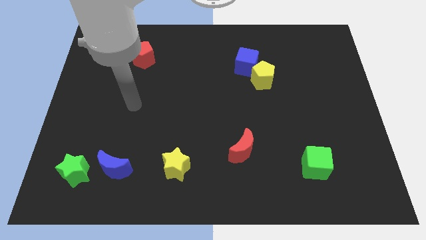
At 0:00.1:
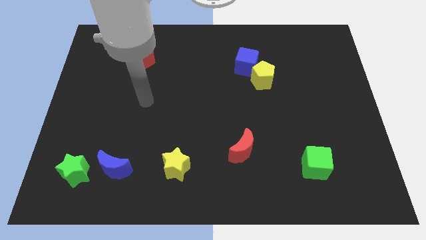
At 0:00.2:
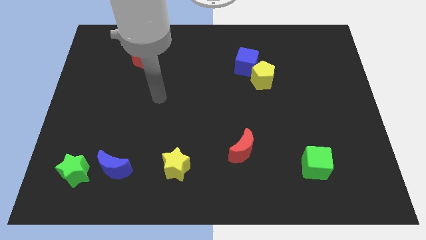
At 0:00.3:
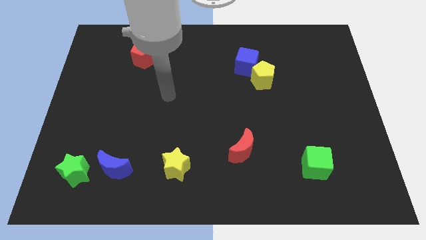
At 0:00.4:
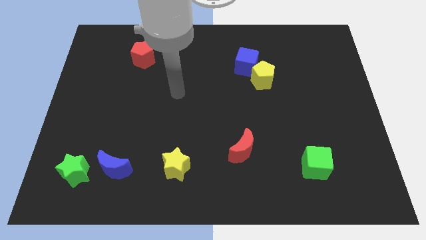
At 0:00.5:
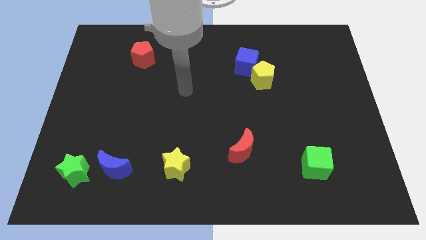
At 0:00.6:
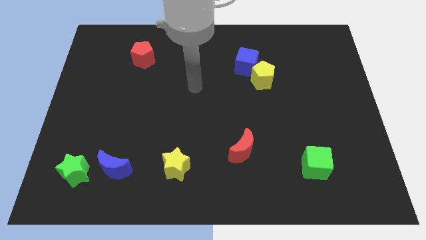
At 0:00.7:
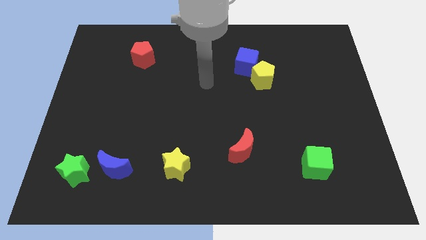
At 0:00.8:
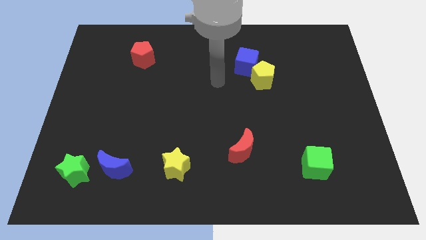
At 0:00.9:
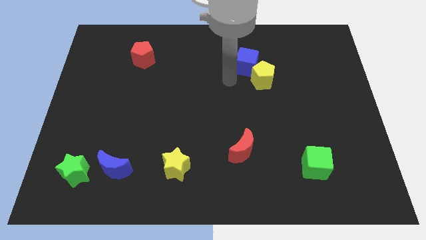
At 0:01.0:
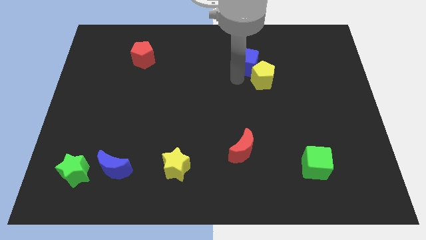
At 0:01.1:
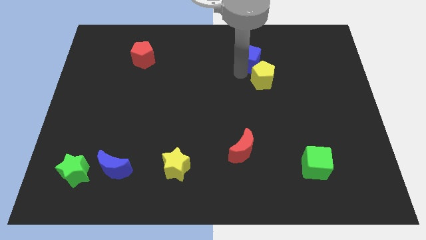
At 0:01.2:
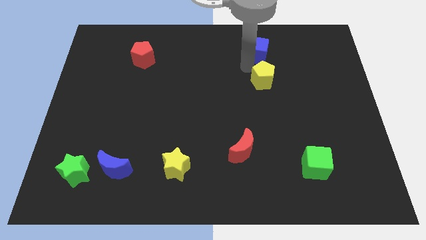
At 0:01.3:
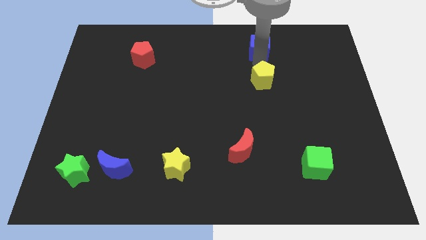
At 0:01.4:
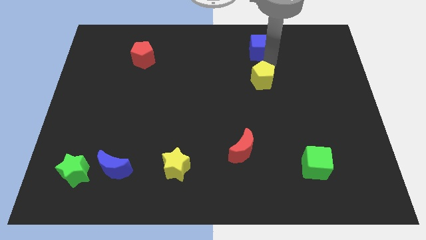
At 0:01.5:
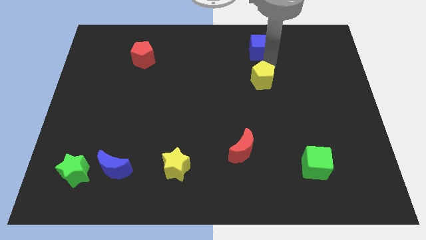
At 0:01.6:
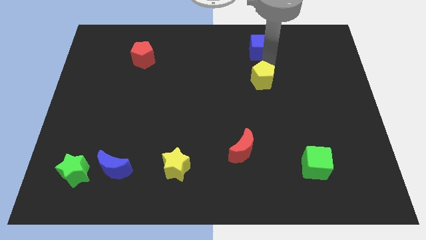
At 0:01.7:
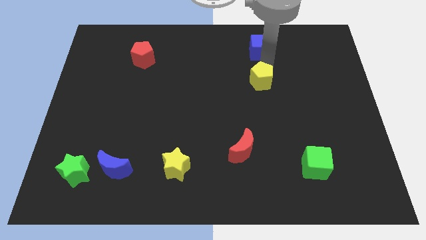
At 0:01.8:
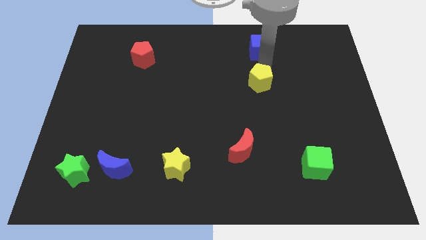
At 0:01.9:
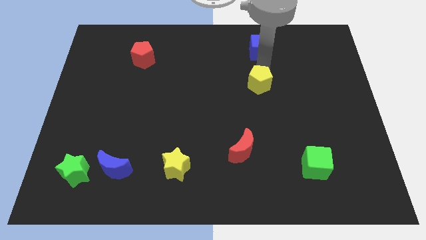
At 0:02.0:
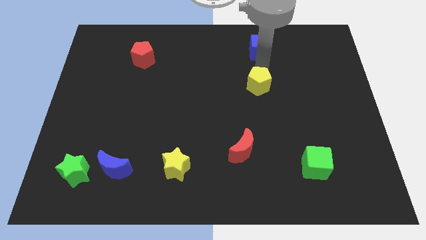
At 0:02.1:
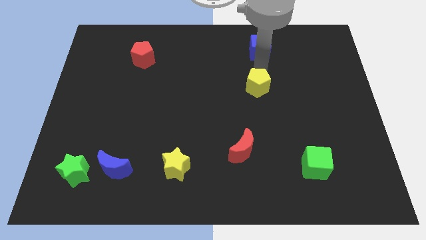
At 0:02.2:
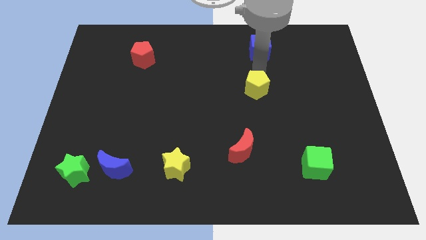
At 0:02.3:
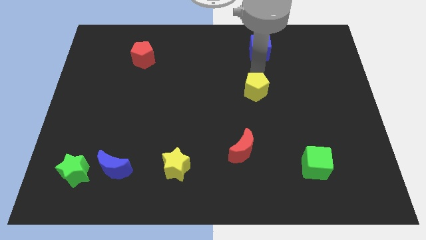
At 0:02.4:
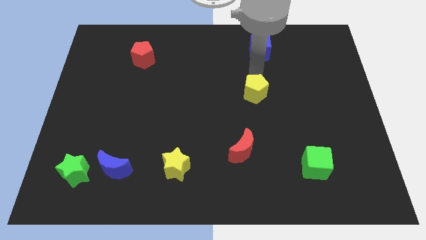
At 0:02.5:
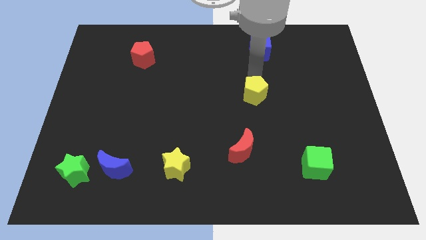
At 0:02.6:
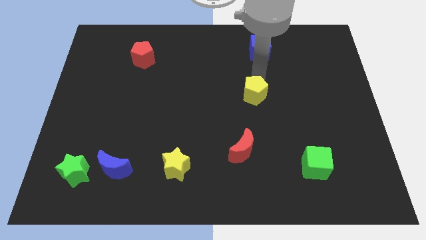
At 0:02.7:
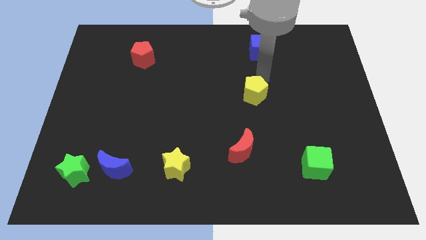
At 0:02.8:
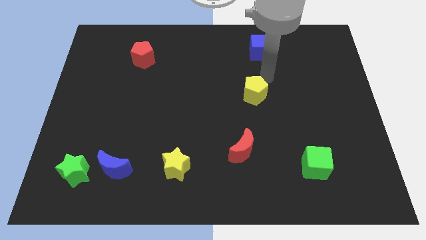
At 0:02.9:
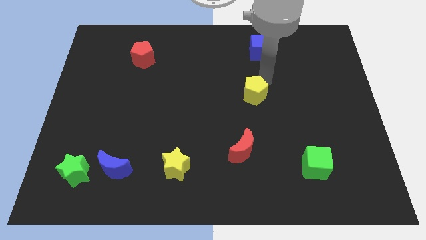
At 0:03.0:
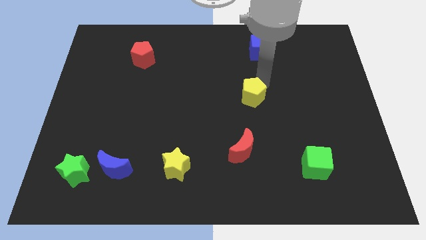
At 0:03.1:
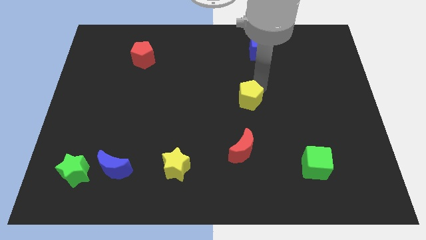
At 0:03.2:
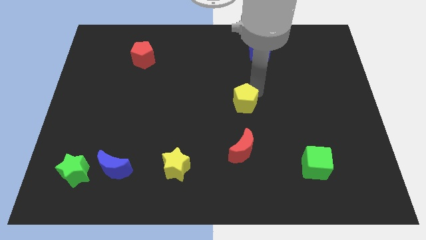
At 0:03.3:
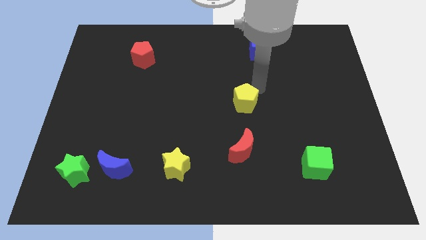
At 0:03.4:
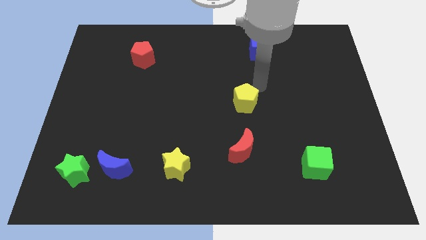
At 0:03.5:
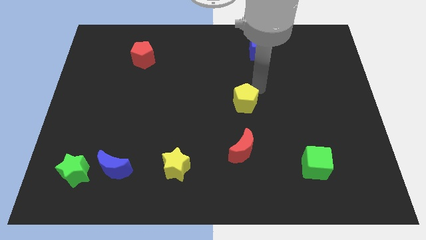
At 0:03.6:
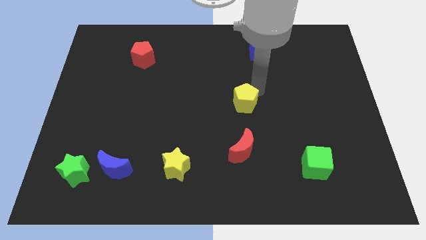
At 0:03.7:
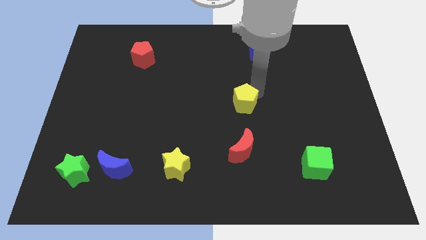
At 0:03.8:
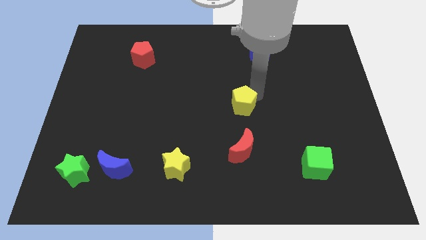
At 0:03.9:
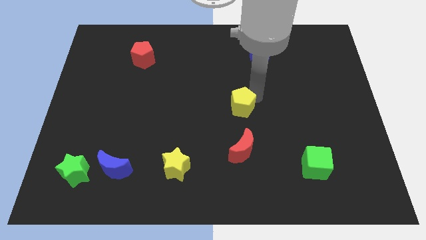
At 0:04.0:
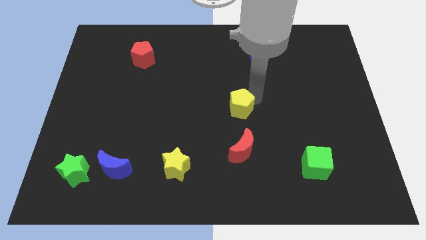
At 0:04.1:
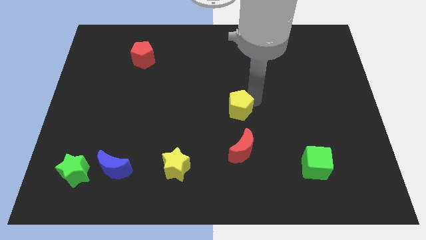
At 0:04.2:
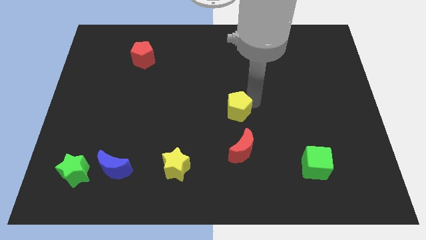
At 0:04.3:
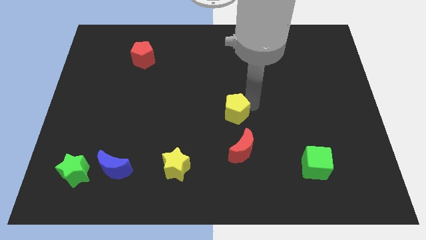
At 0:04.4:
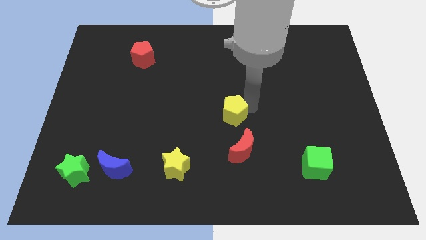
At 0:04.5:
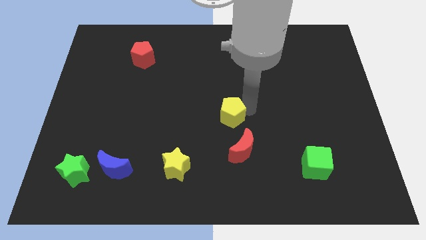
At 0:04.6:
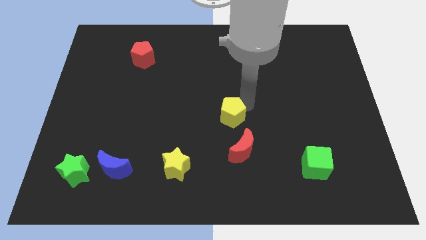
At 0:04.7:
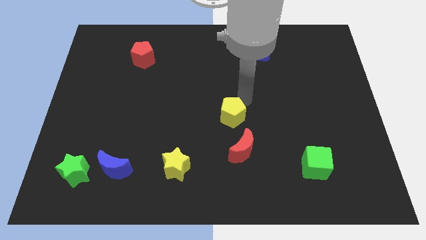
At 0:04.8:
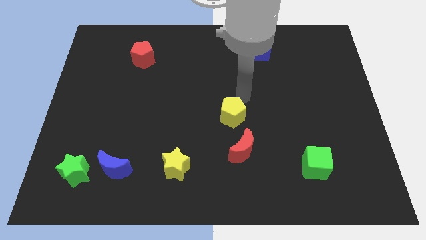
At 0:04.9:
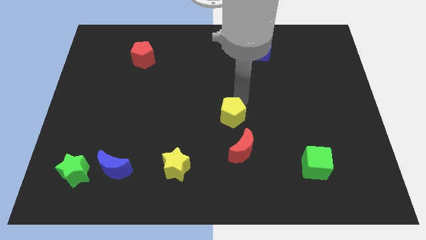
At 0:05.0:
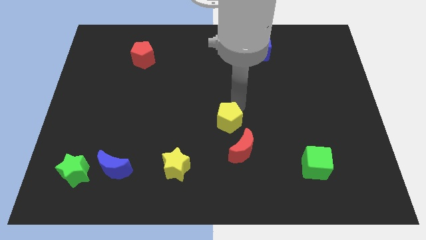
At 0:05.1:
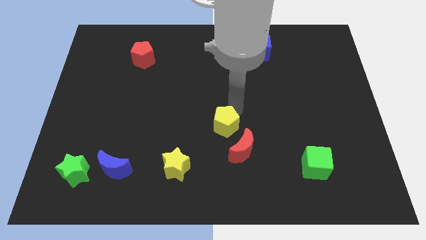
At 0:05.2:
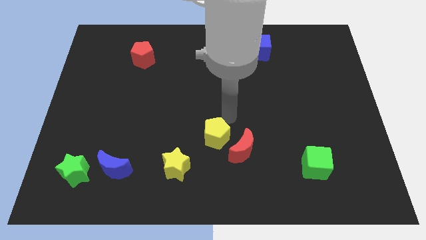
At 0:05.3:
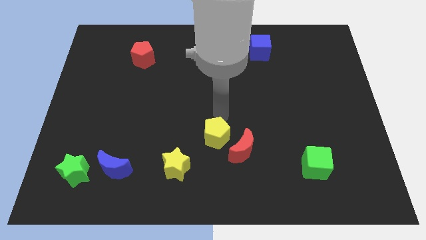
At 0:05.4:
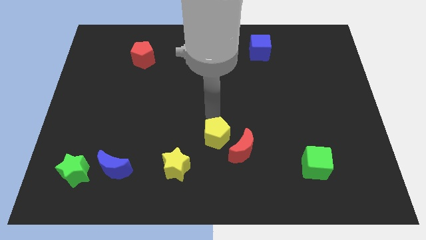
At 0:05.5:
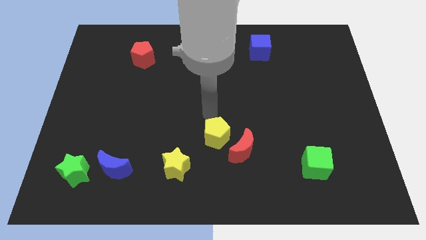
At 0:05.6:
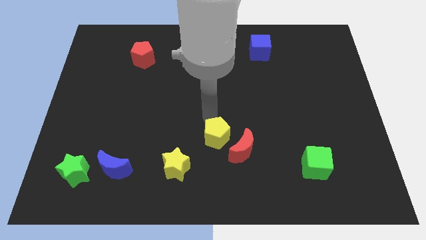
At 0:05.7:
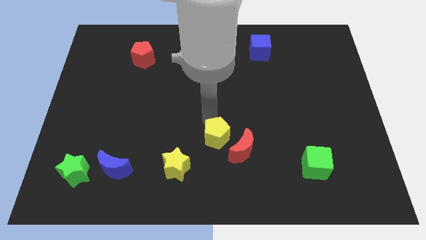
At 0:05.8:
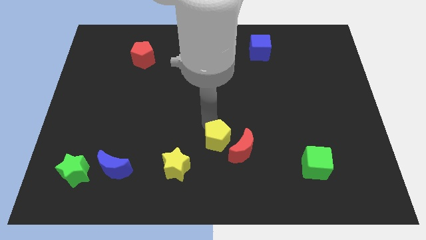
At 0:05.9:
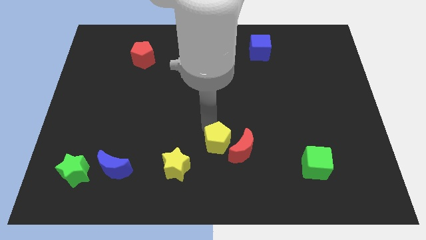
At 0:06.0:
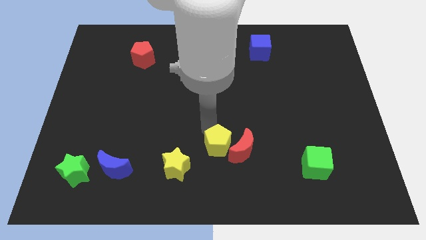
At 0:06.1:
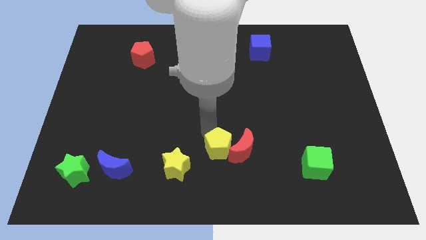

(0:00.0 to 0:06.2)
push the yellow pentagon to the right side of the yellow star

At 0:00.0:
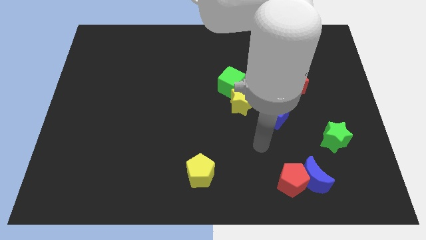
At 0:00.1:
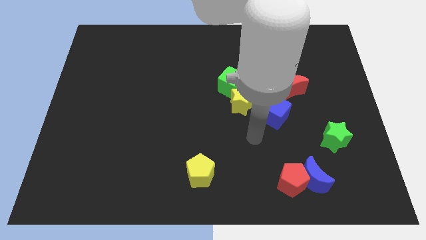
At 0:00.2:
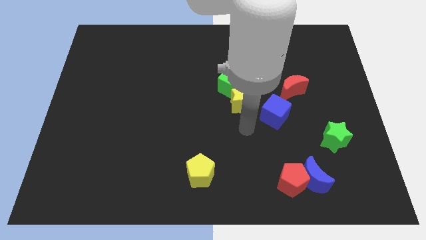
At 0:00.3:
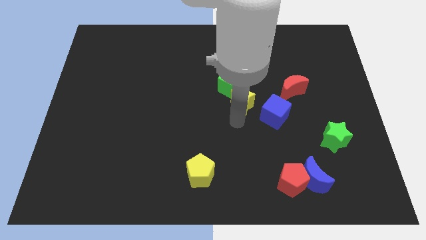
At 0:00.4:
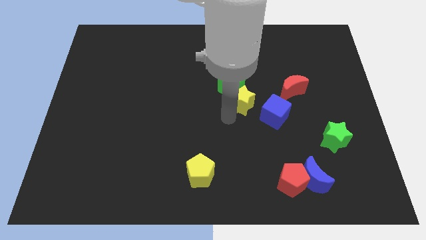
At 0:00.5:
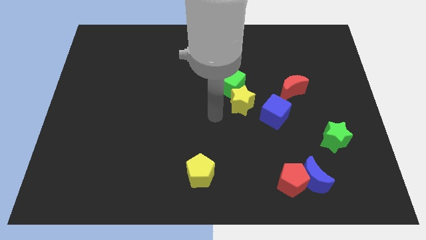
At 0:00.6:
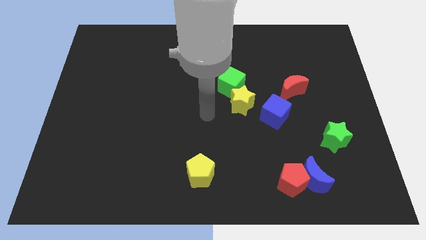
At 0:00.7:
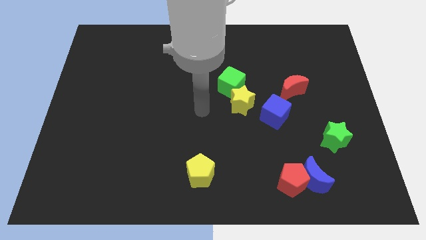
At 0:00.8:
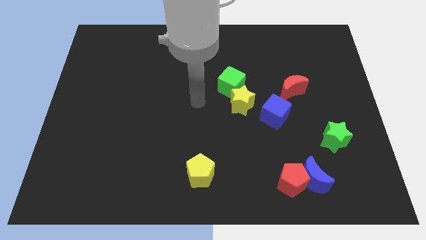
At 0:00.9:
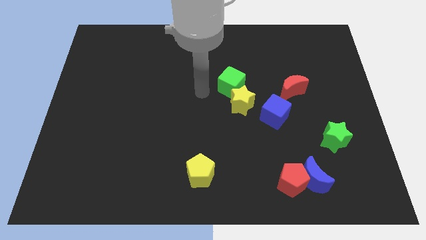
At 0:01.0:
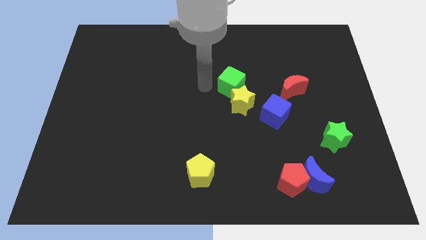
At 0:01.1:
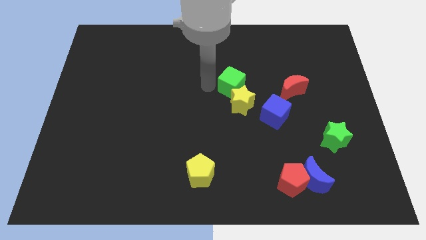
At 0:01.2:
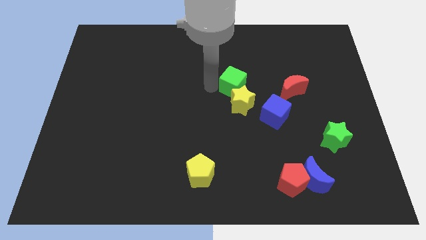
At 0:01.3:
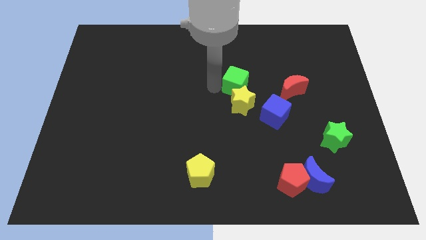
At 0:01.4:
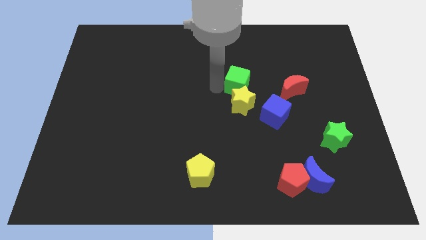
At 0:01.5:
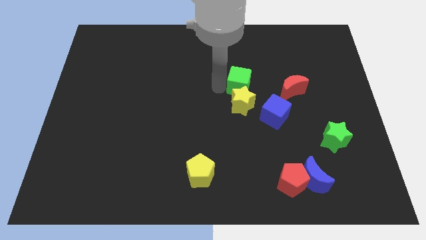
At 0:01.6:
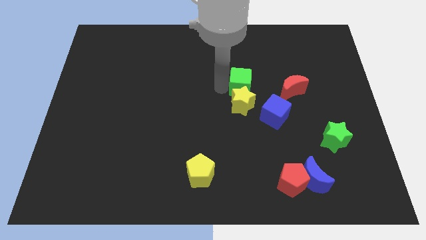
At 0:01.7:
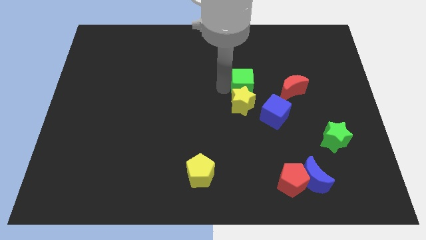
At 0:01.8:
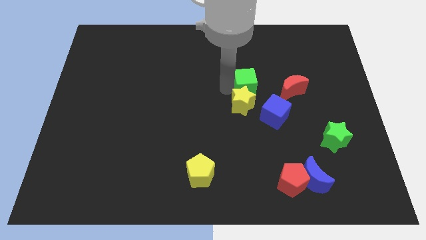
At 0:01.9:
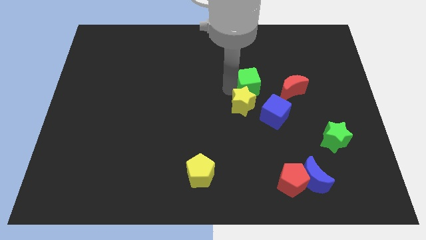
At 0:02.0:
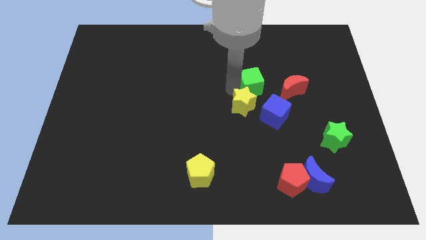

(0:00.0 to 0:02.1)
slide the green cube to the top of the blue cube
